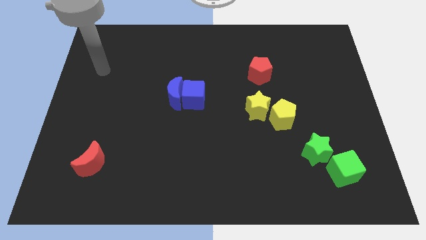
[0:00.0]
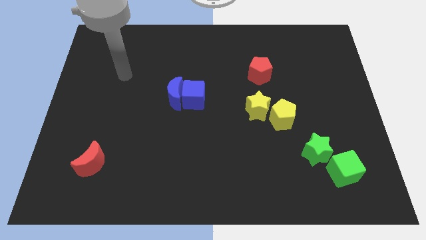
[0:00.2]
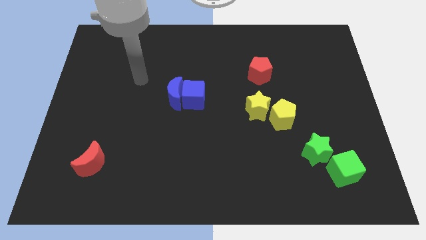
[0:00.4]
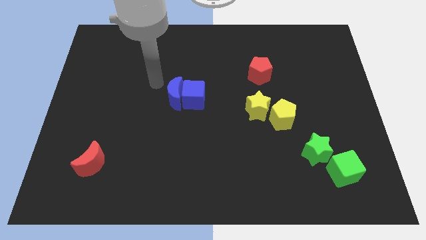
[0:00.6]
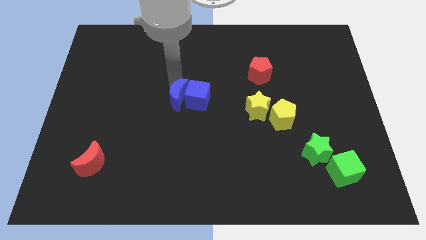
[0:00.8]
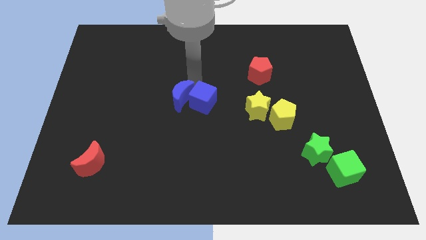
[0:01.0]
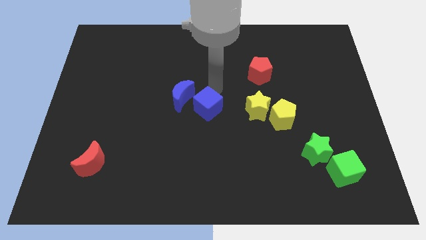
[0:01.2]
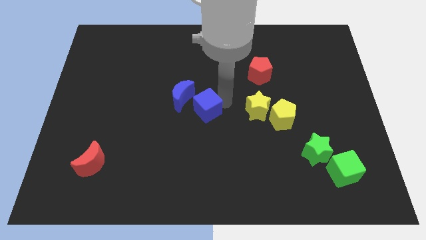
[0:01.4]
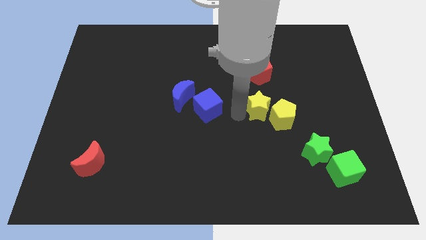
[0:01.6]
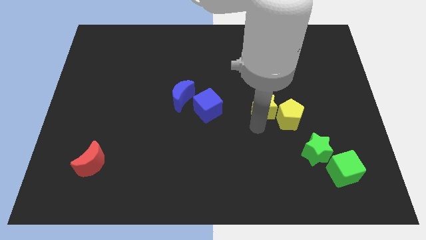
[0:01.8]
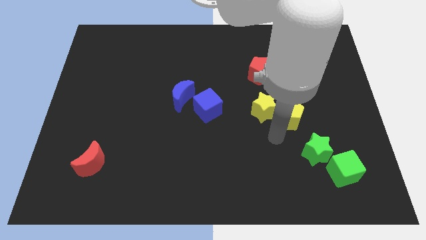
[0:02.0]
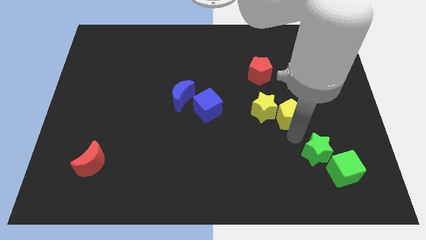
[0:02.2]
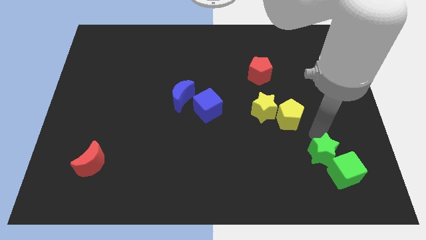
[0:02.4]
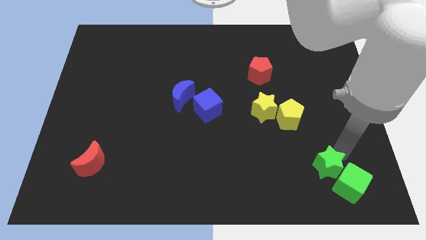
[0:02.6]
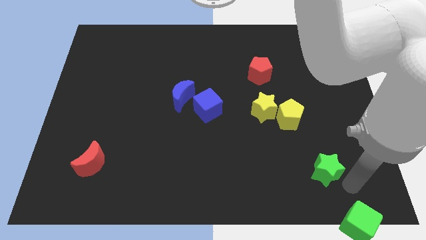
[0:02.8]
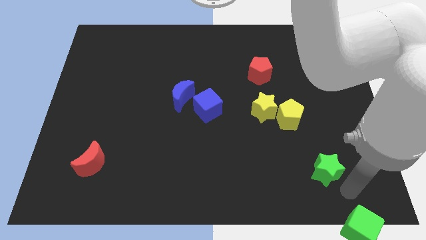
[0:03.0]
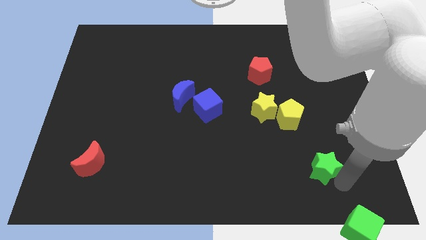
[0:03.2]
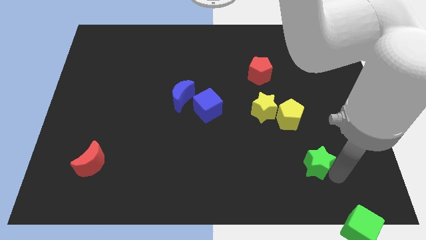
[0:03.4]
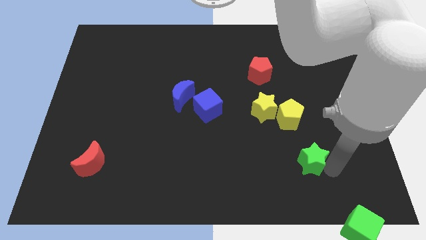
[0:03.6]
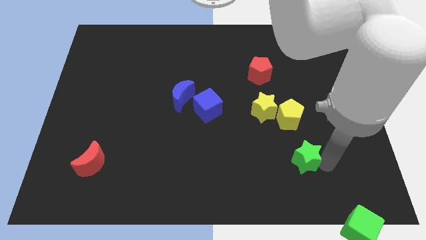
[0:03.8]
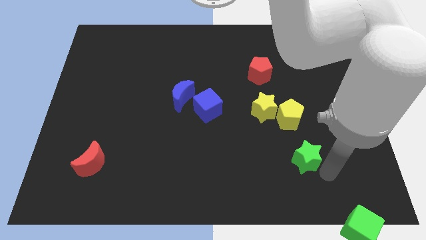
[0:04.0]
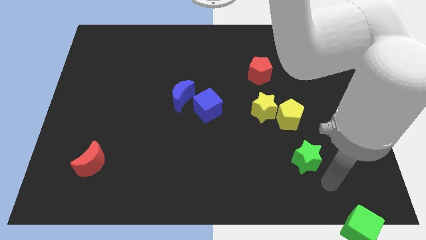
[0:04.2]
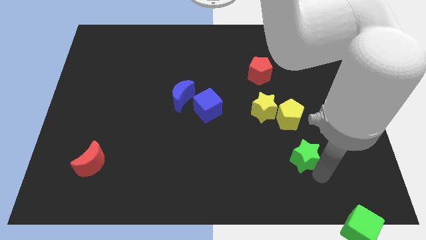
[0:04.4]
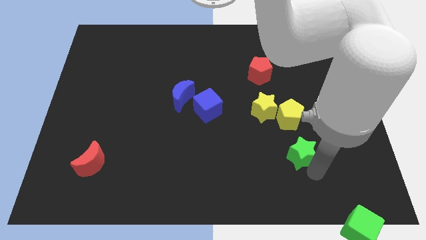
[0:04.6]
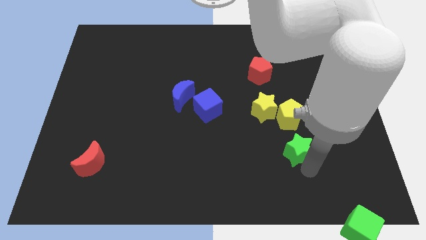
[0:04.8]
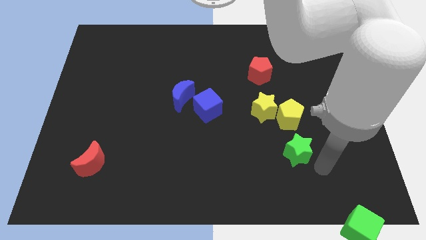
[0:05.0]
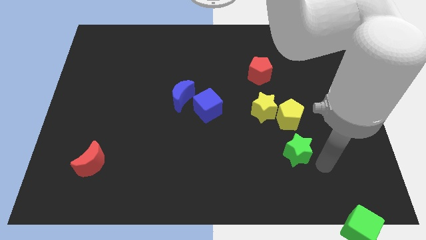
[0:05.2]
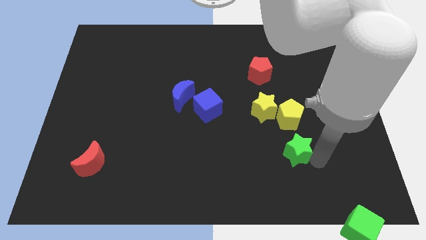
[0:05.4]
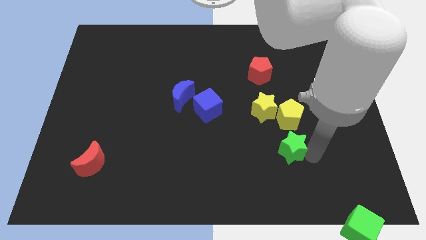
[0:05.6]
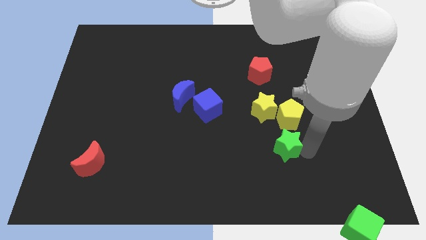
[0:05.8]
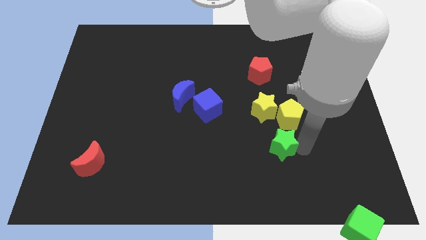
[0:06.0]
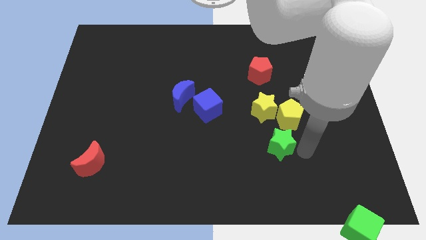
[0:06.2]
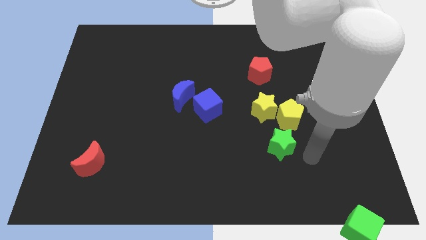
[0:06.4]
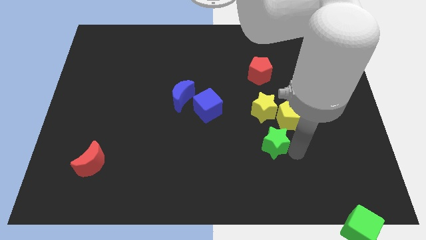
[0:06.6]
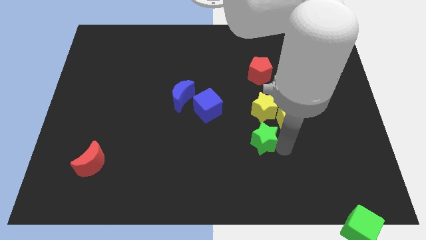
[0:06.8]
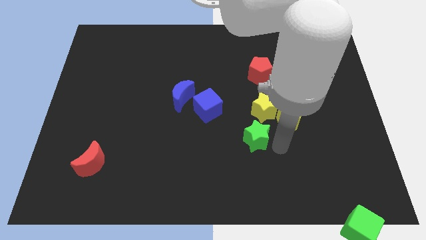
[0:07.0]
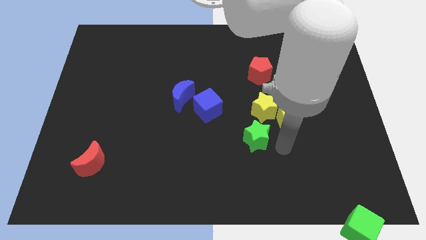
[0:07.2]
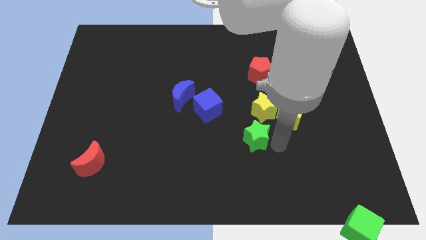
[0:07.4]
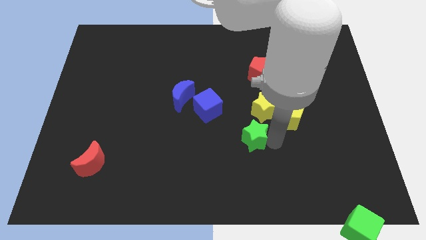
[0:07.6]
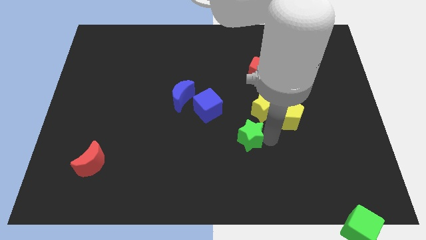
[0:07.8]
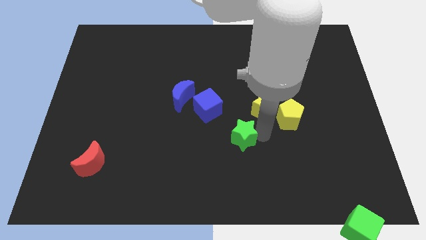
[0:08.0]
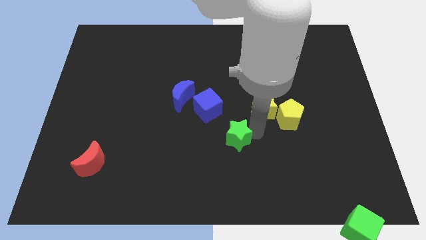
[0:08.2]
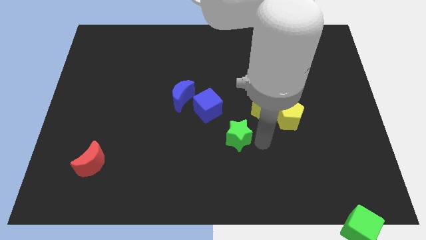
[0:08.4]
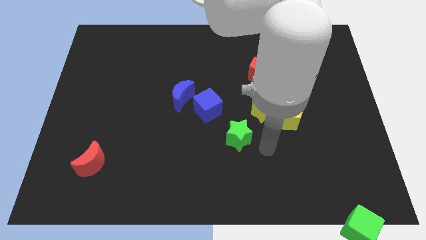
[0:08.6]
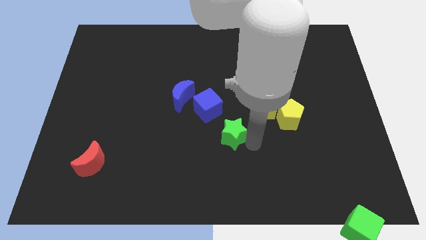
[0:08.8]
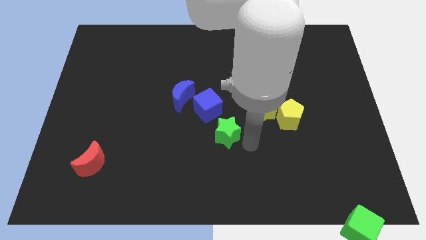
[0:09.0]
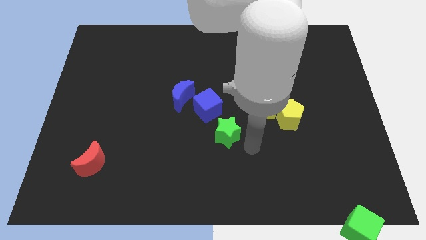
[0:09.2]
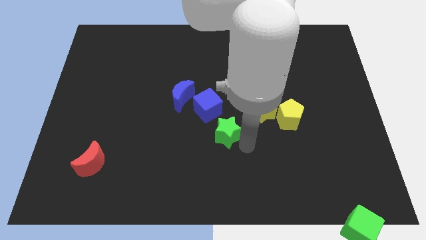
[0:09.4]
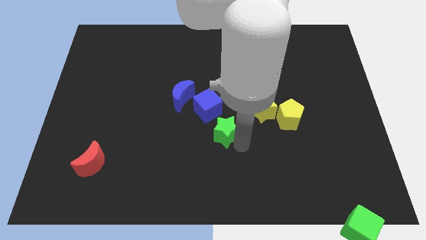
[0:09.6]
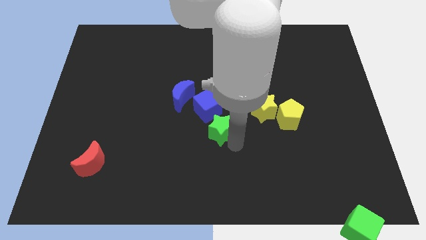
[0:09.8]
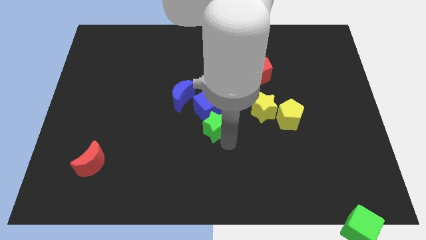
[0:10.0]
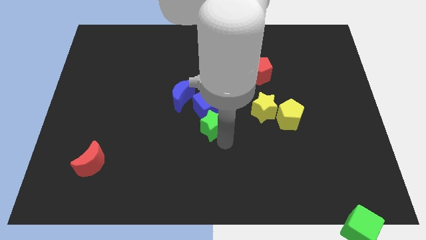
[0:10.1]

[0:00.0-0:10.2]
push the green star next to the blue cube

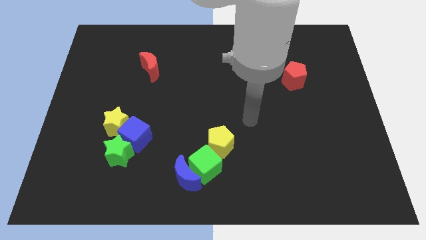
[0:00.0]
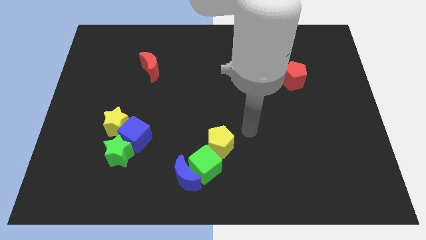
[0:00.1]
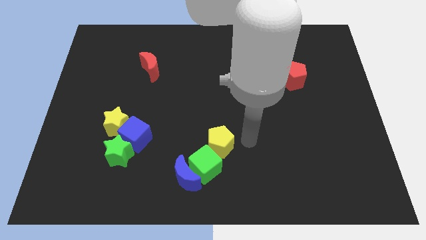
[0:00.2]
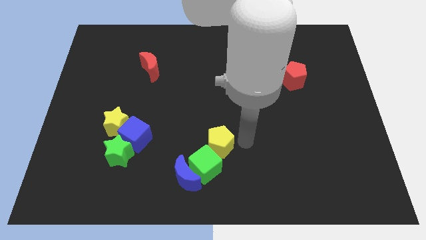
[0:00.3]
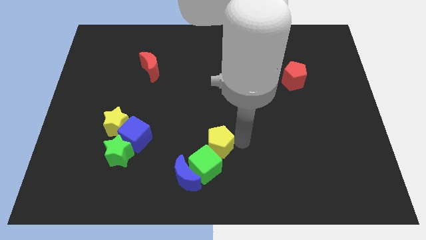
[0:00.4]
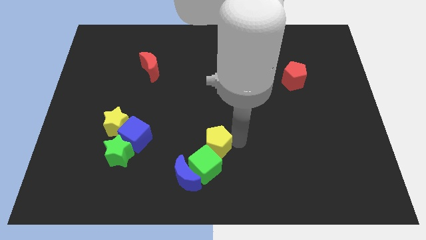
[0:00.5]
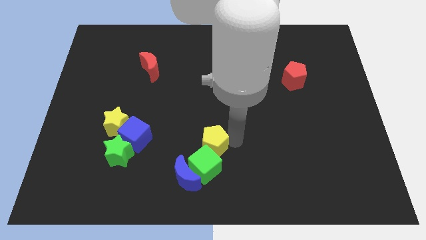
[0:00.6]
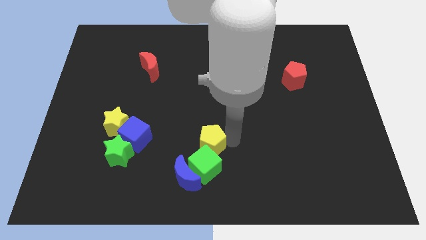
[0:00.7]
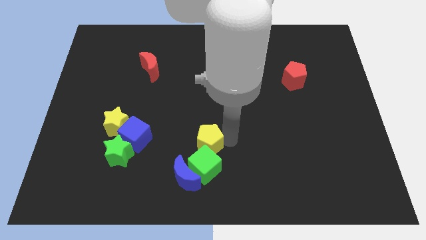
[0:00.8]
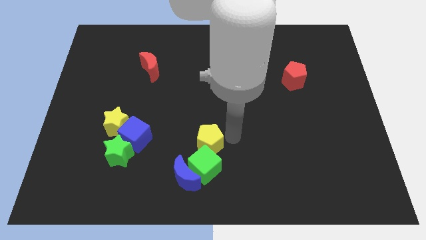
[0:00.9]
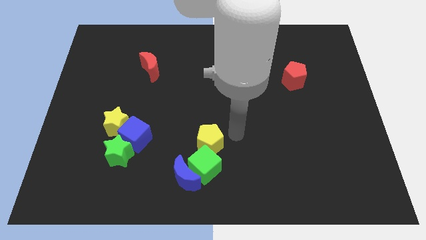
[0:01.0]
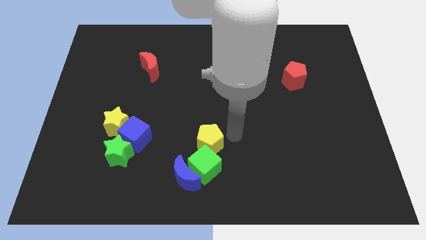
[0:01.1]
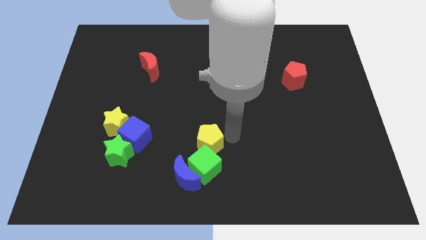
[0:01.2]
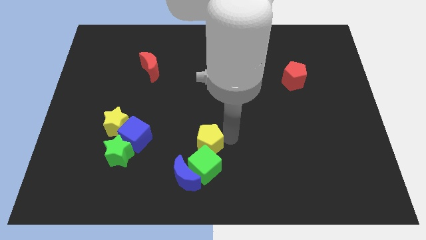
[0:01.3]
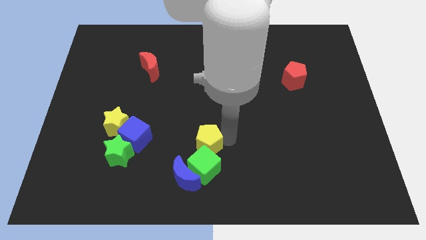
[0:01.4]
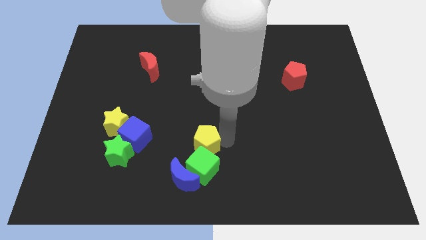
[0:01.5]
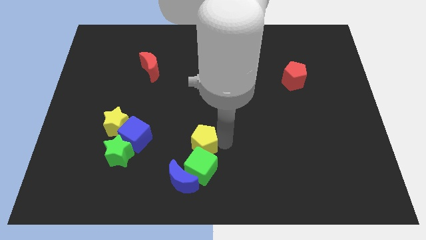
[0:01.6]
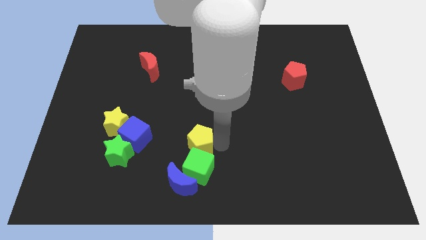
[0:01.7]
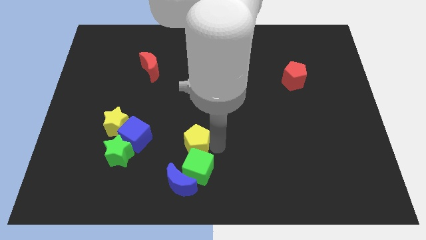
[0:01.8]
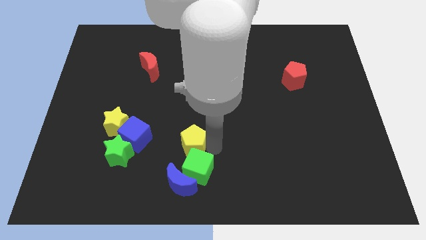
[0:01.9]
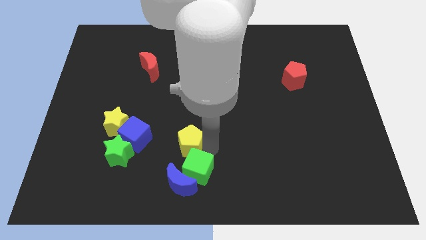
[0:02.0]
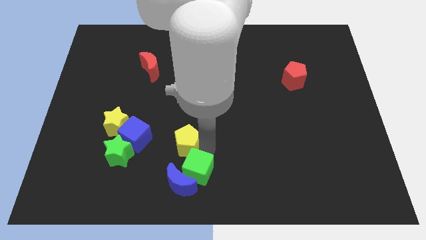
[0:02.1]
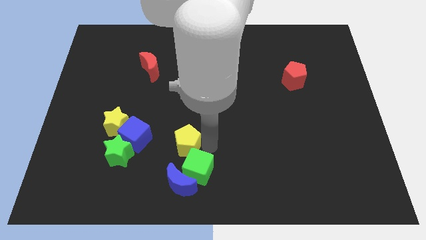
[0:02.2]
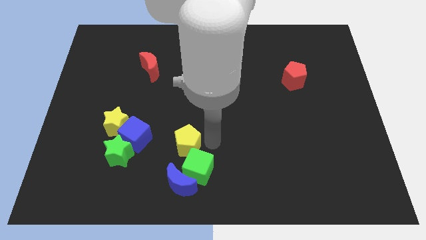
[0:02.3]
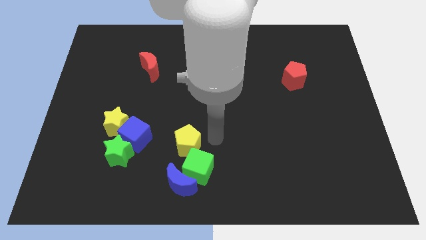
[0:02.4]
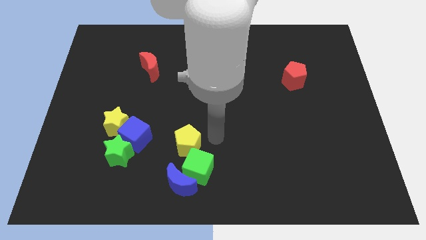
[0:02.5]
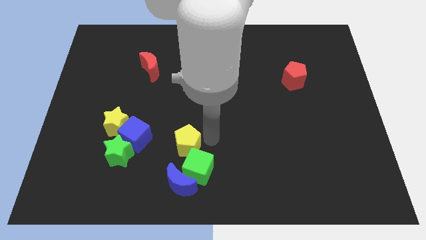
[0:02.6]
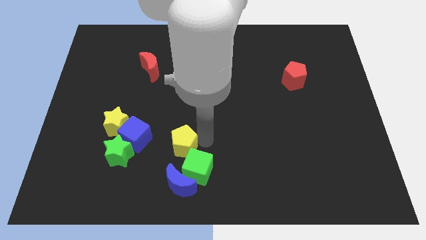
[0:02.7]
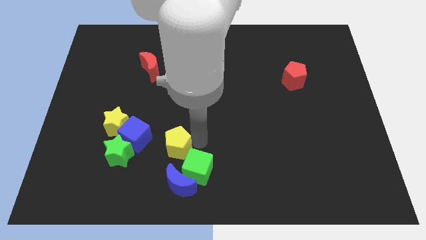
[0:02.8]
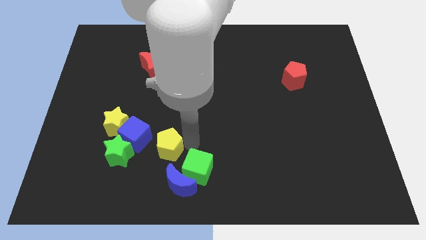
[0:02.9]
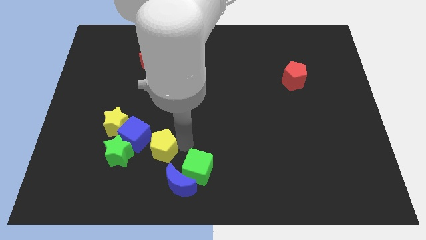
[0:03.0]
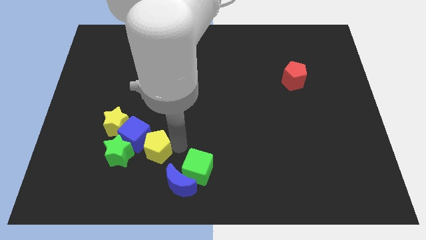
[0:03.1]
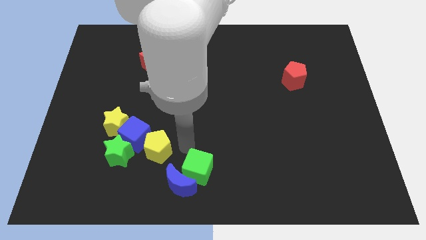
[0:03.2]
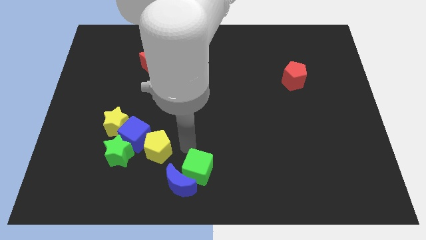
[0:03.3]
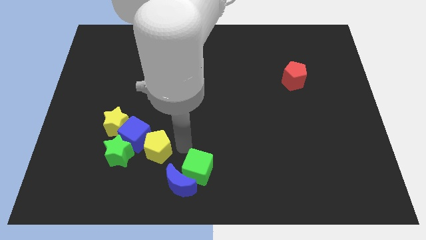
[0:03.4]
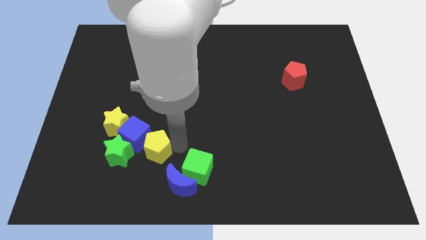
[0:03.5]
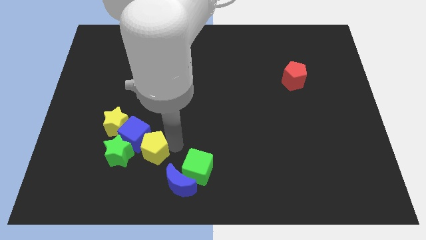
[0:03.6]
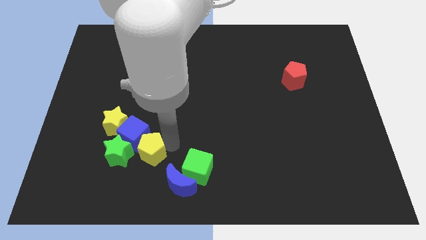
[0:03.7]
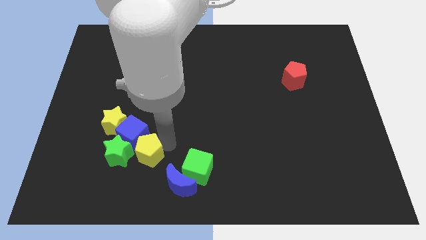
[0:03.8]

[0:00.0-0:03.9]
put the yellow pentagon to the green star
